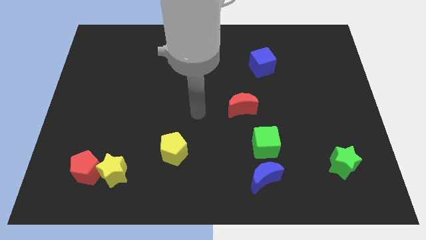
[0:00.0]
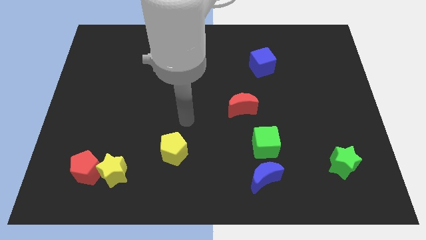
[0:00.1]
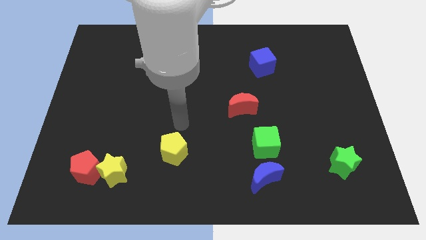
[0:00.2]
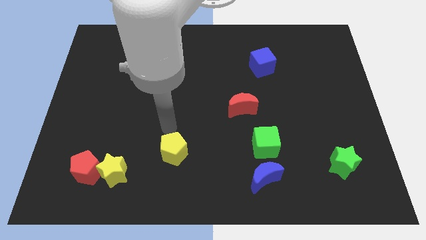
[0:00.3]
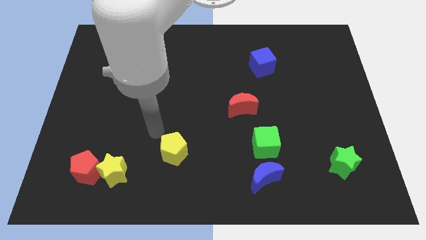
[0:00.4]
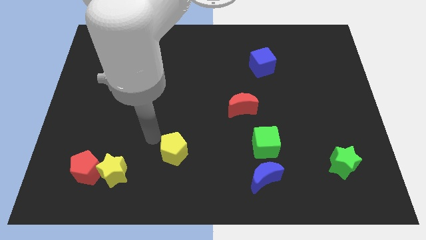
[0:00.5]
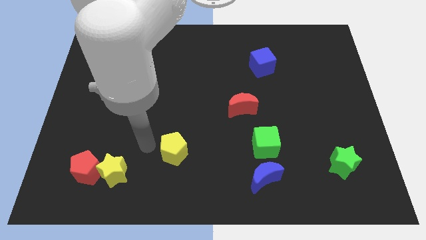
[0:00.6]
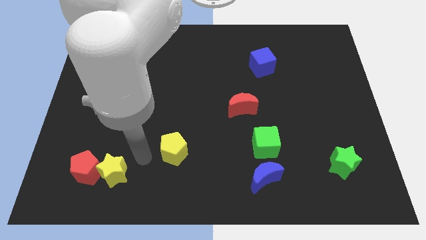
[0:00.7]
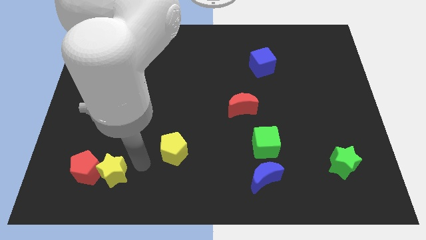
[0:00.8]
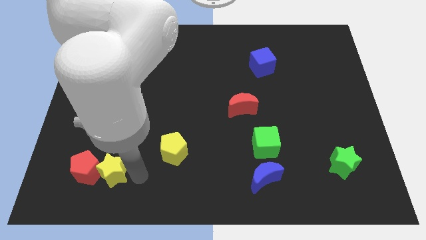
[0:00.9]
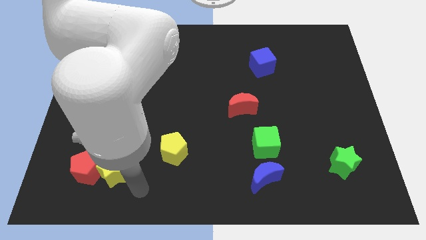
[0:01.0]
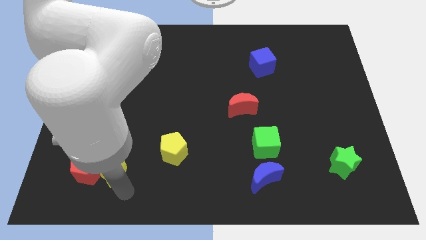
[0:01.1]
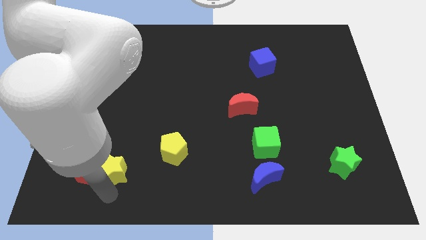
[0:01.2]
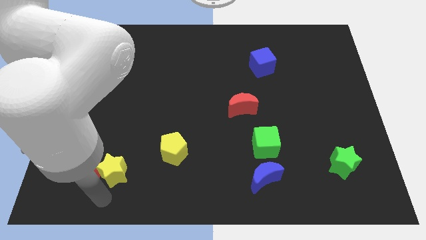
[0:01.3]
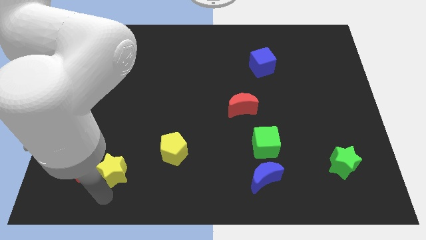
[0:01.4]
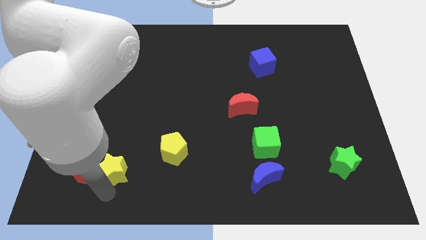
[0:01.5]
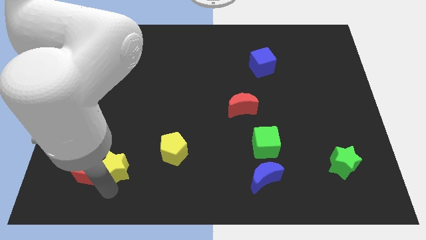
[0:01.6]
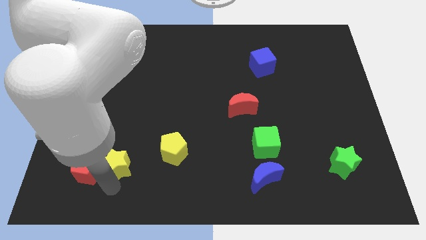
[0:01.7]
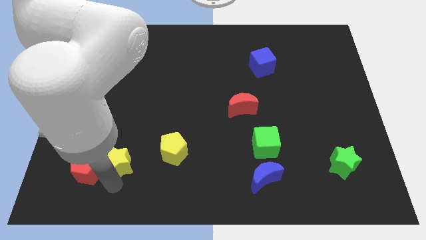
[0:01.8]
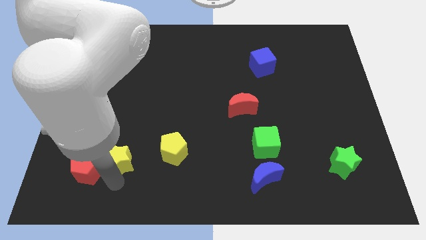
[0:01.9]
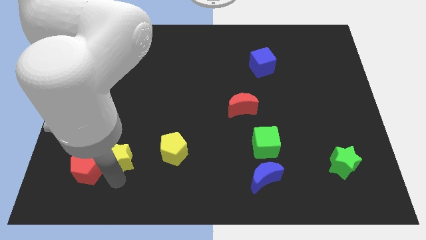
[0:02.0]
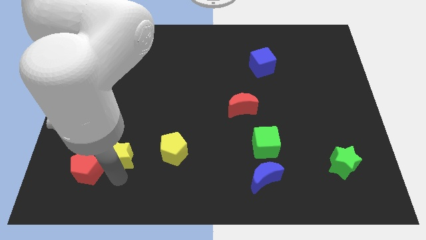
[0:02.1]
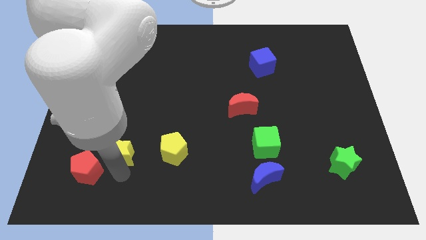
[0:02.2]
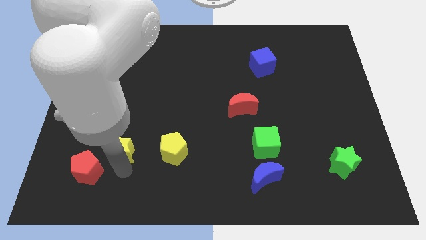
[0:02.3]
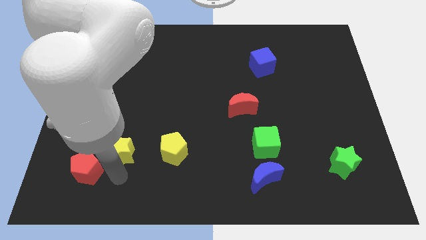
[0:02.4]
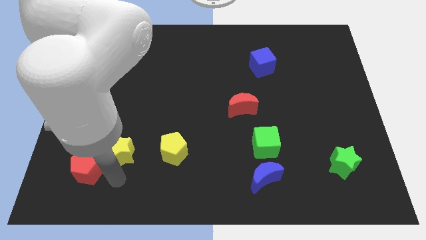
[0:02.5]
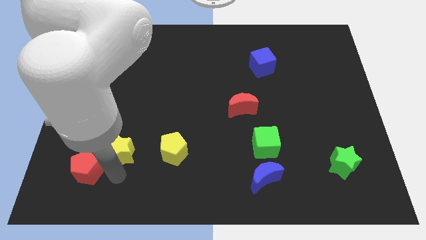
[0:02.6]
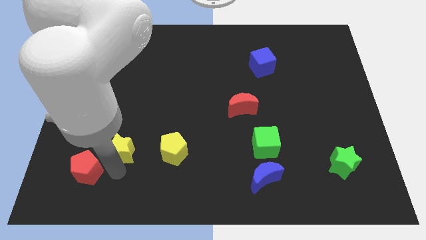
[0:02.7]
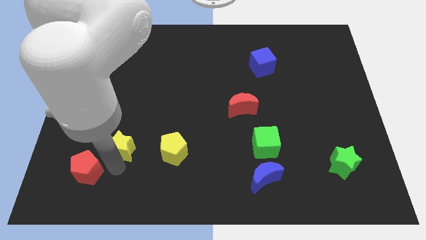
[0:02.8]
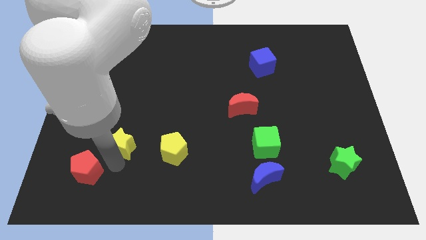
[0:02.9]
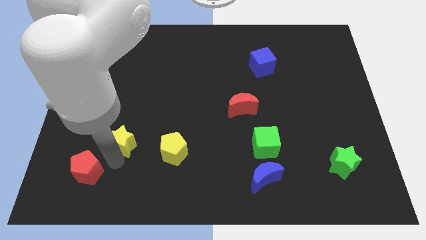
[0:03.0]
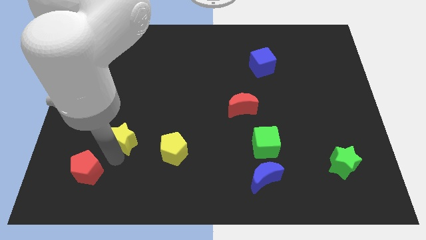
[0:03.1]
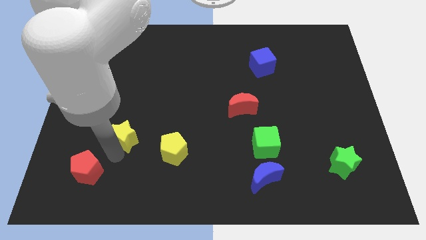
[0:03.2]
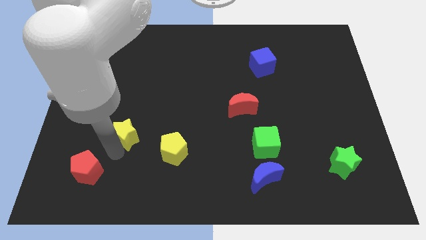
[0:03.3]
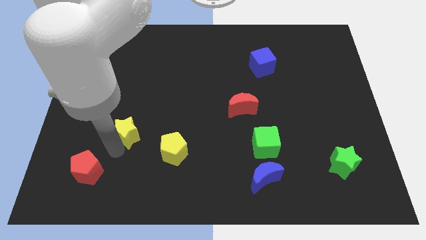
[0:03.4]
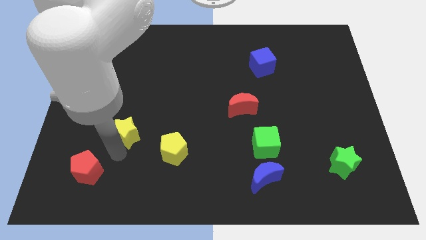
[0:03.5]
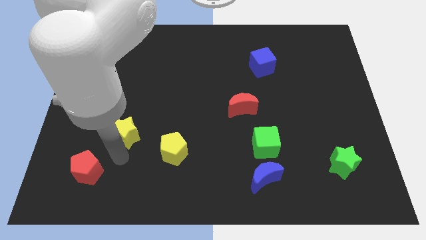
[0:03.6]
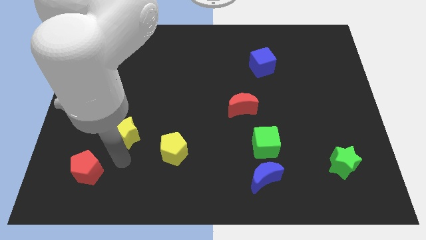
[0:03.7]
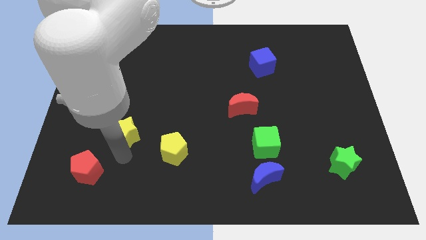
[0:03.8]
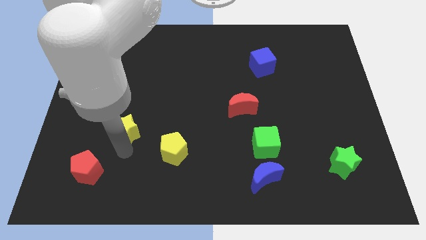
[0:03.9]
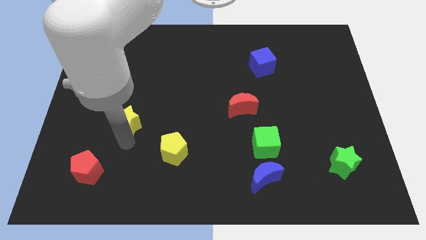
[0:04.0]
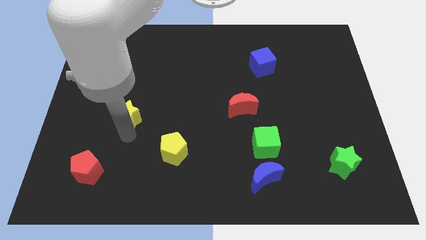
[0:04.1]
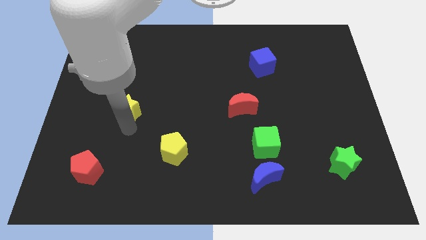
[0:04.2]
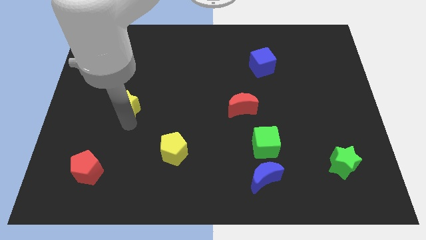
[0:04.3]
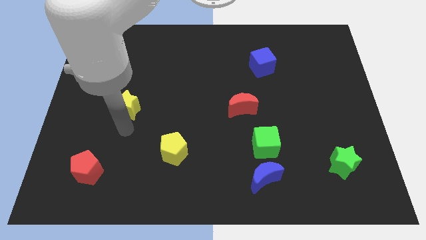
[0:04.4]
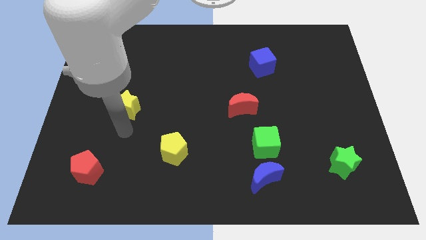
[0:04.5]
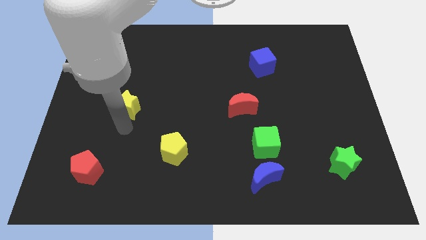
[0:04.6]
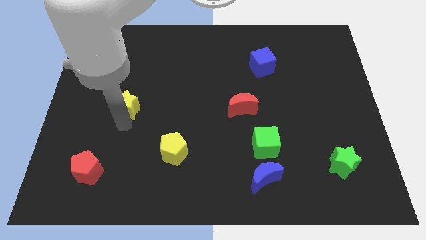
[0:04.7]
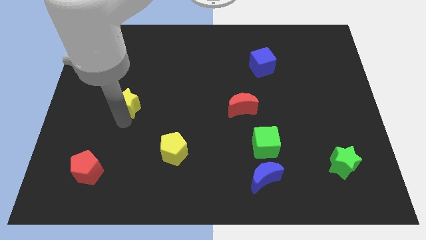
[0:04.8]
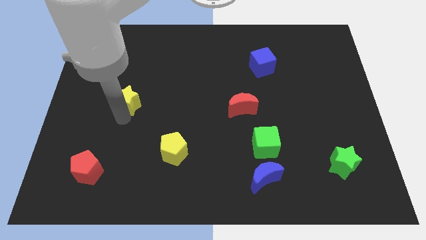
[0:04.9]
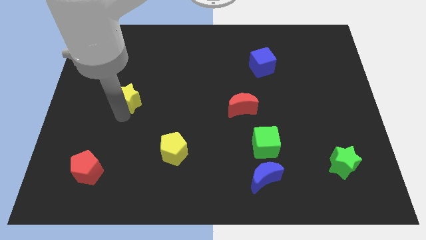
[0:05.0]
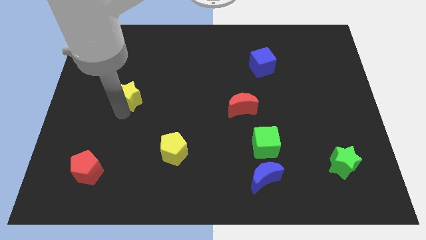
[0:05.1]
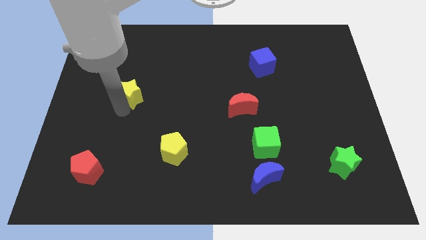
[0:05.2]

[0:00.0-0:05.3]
slide the yellow star up

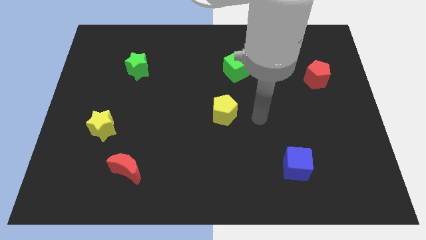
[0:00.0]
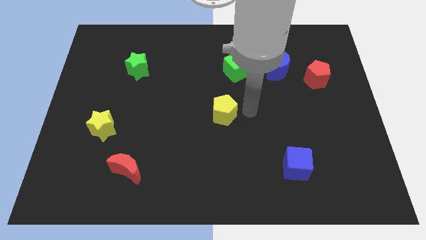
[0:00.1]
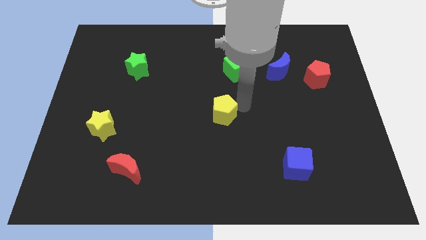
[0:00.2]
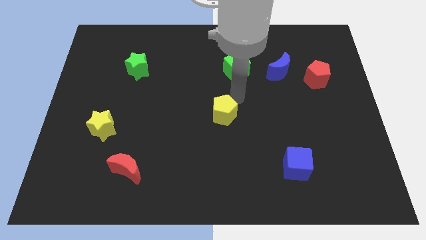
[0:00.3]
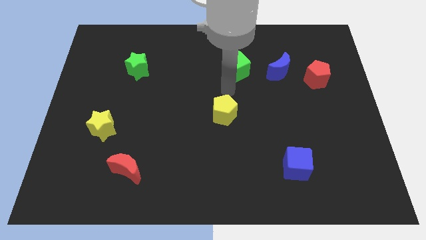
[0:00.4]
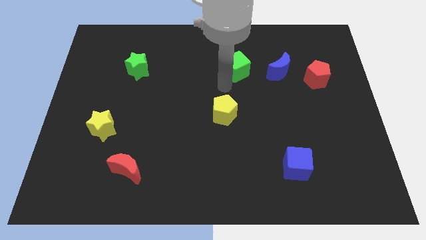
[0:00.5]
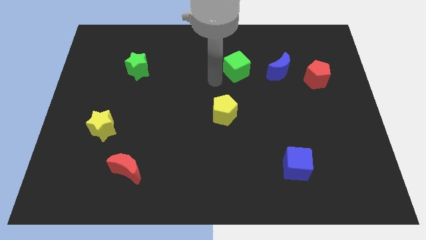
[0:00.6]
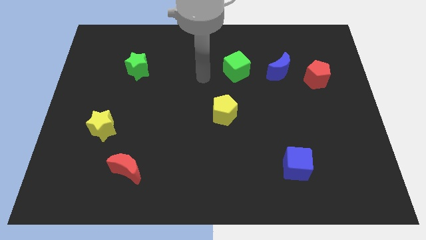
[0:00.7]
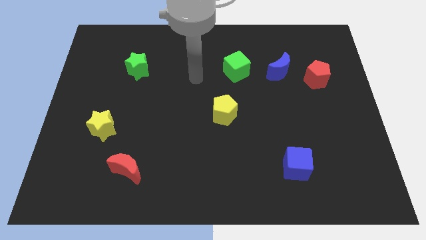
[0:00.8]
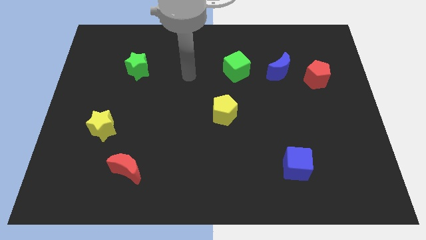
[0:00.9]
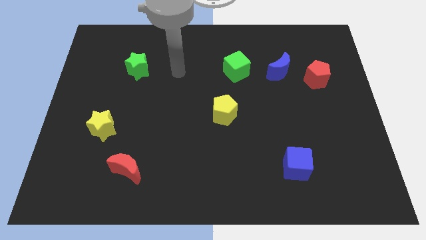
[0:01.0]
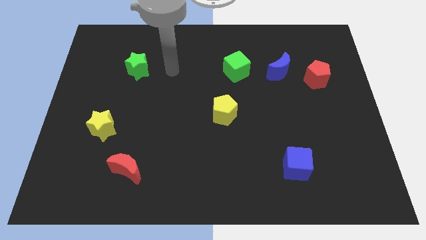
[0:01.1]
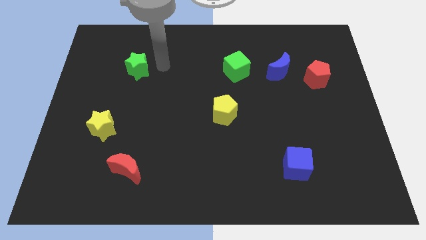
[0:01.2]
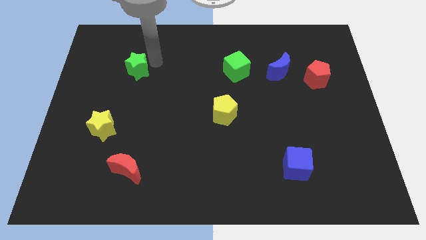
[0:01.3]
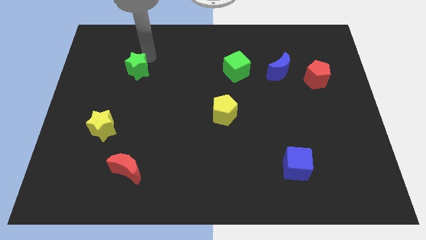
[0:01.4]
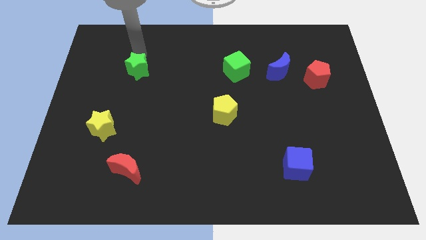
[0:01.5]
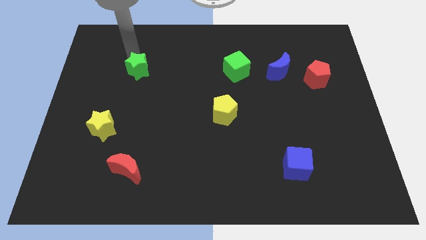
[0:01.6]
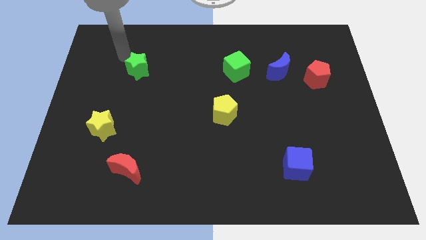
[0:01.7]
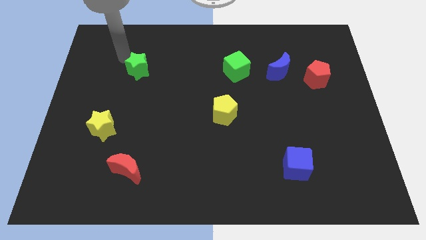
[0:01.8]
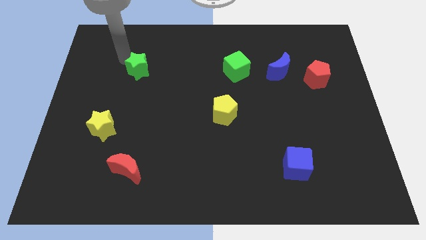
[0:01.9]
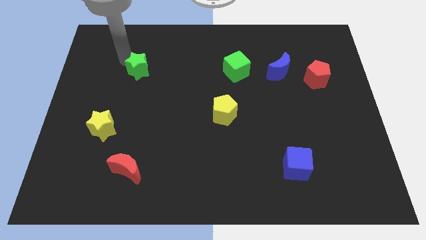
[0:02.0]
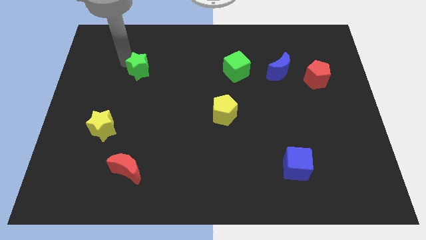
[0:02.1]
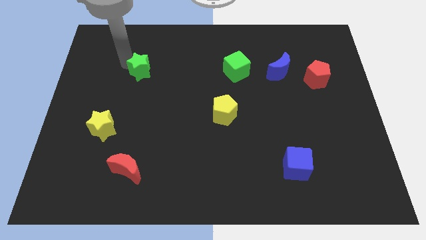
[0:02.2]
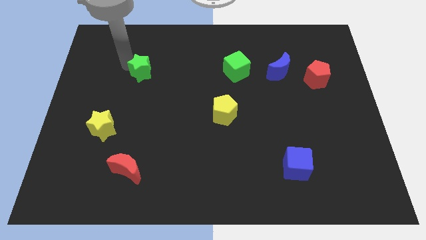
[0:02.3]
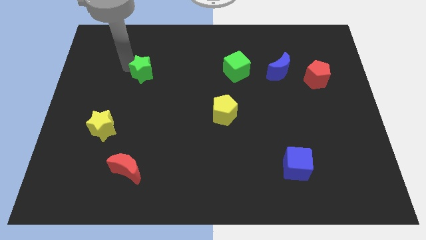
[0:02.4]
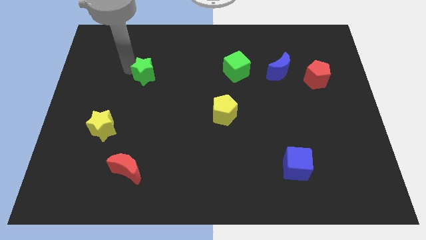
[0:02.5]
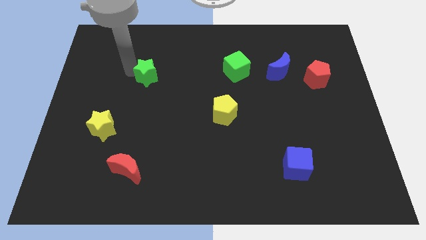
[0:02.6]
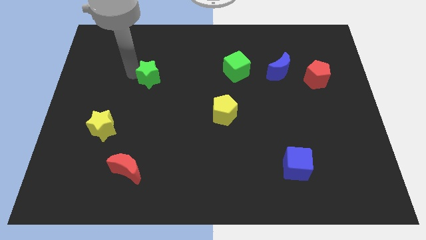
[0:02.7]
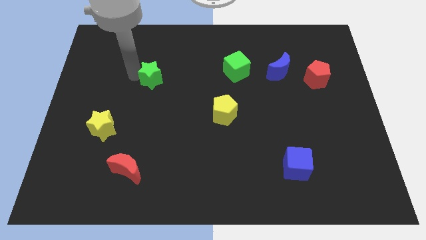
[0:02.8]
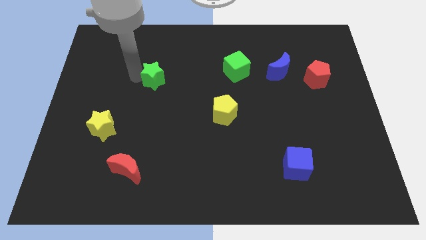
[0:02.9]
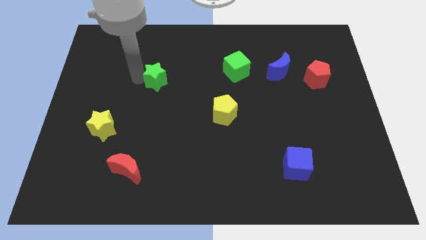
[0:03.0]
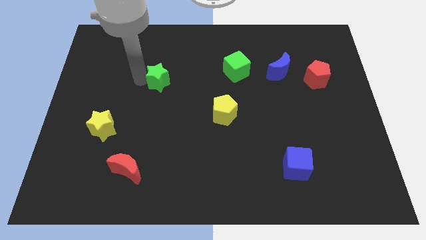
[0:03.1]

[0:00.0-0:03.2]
slide the green star downwards and right a little bit
